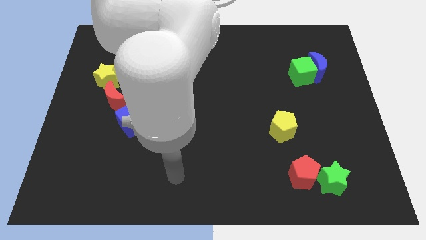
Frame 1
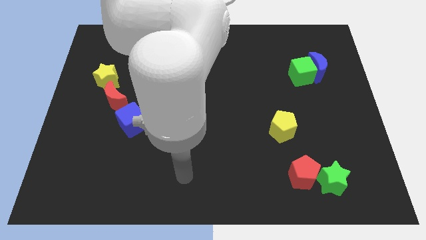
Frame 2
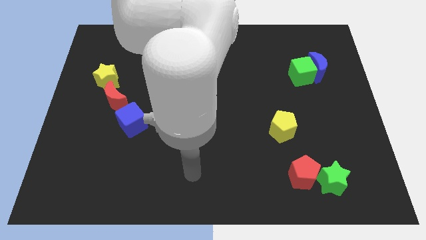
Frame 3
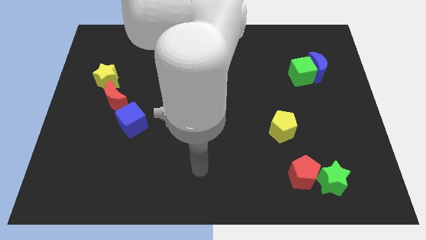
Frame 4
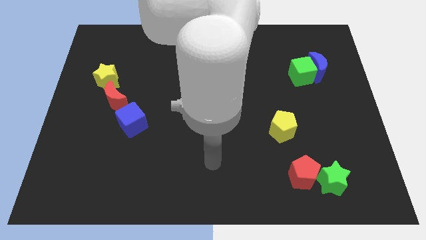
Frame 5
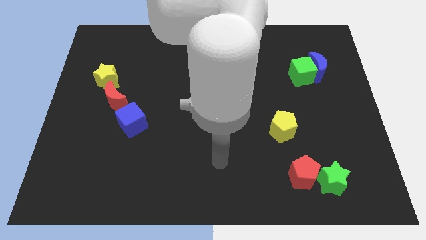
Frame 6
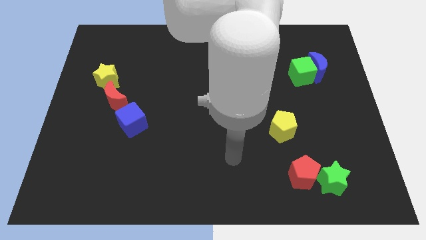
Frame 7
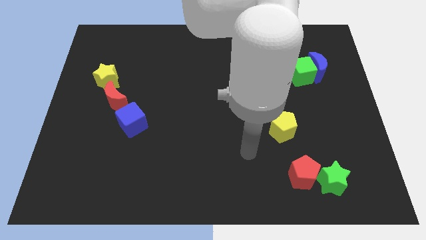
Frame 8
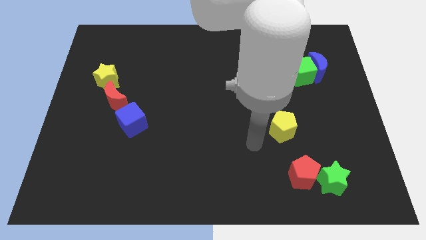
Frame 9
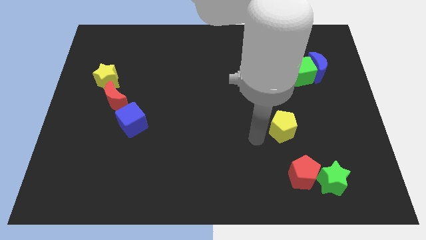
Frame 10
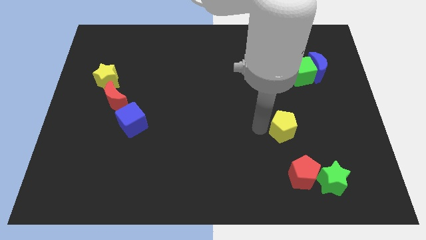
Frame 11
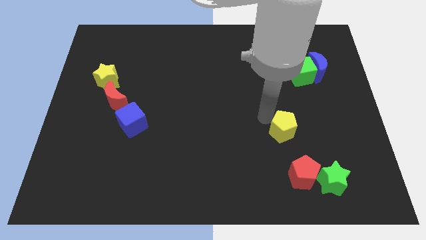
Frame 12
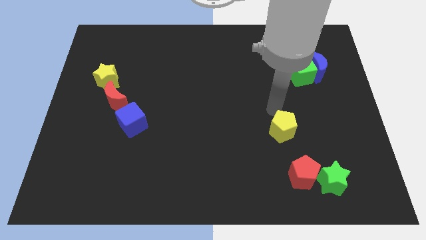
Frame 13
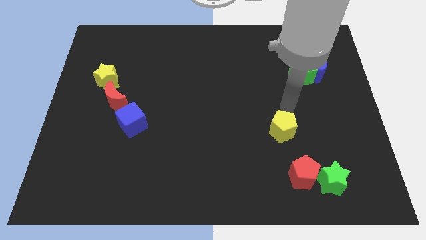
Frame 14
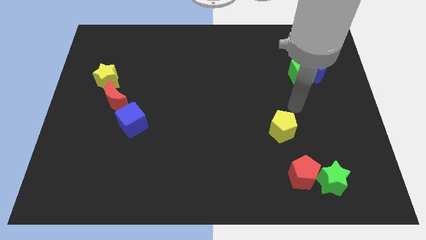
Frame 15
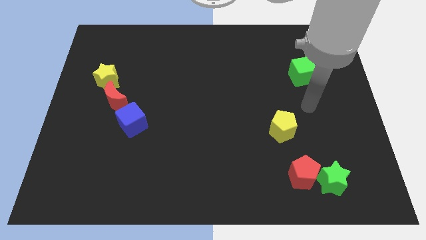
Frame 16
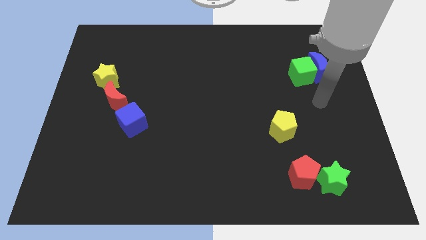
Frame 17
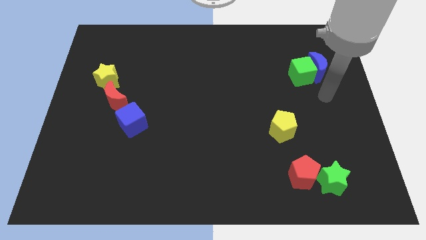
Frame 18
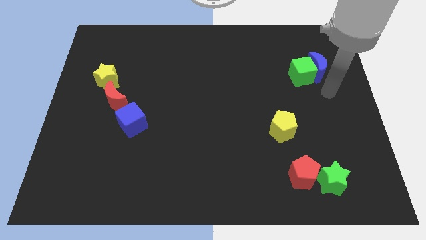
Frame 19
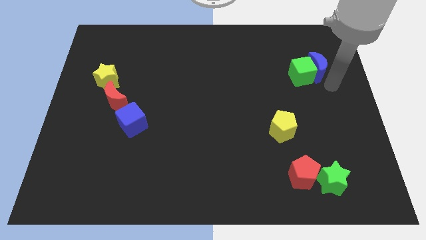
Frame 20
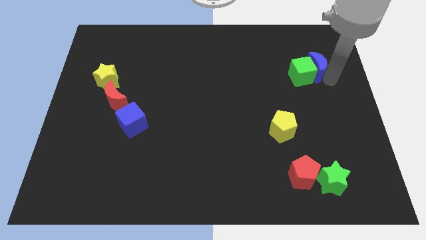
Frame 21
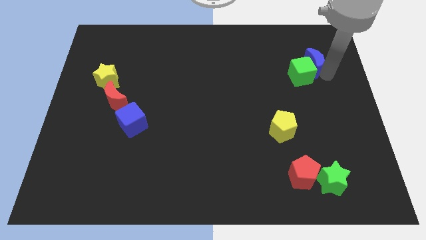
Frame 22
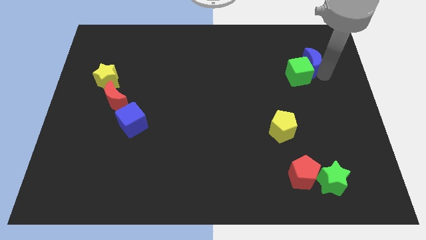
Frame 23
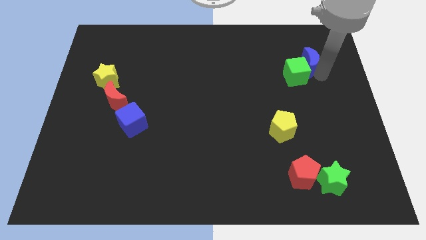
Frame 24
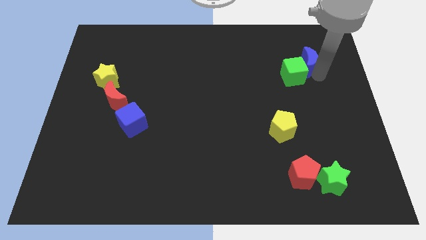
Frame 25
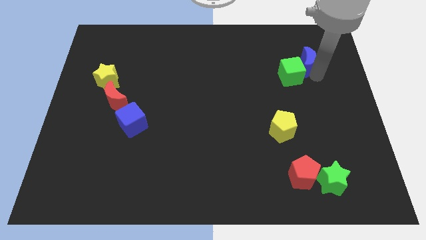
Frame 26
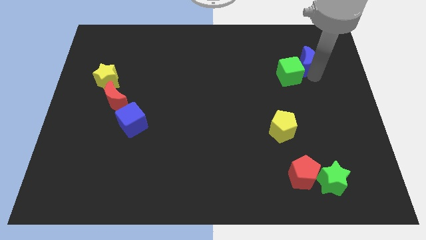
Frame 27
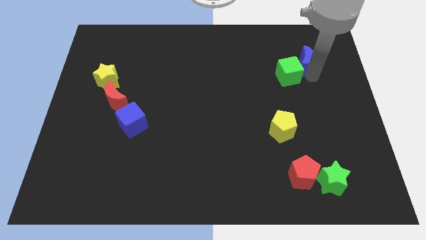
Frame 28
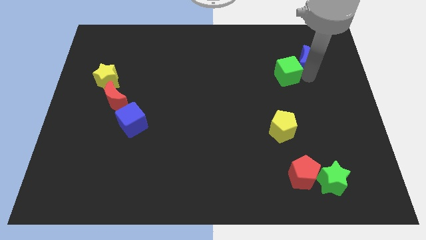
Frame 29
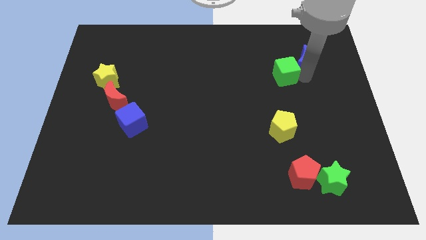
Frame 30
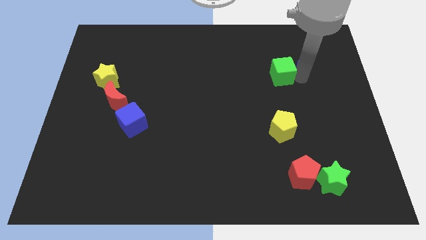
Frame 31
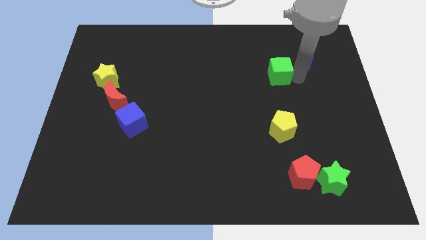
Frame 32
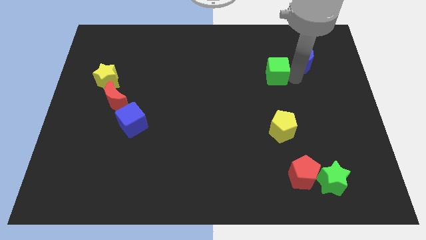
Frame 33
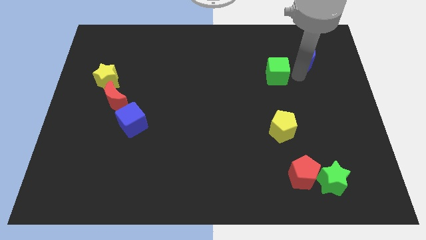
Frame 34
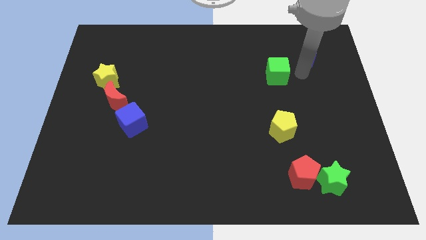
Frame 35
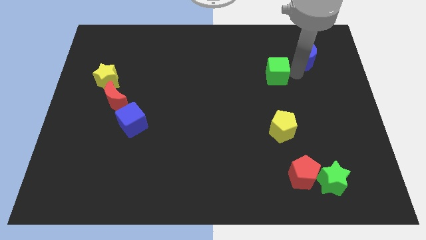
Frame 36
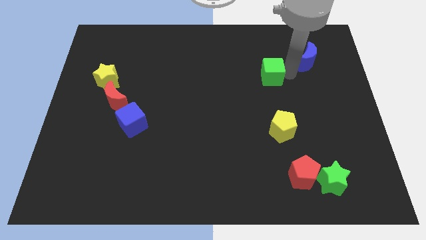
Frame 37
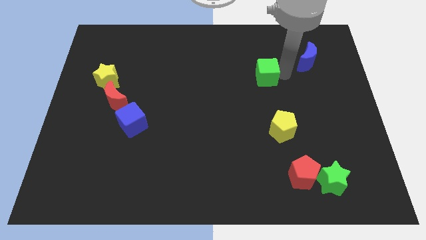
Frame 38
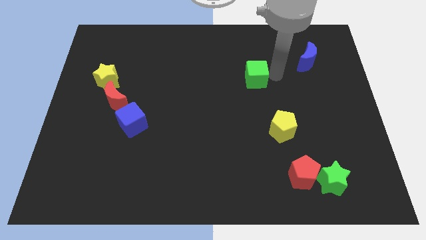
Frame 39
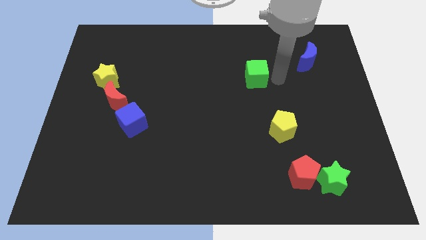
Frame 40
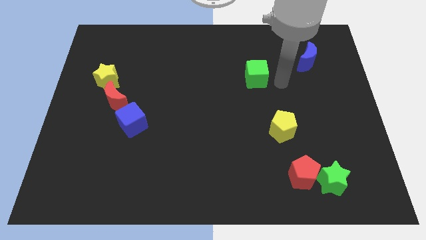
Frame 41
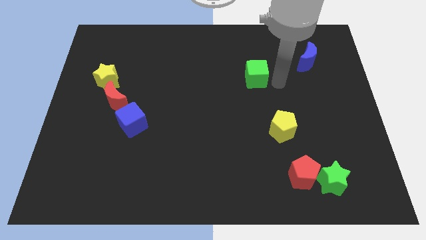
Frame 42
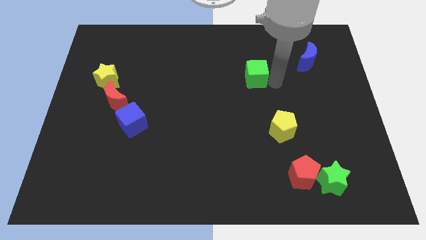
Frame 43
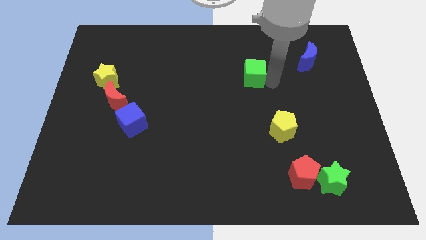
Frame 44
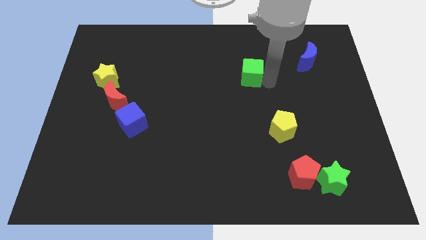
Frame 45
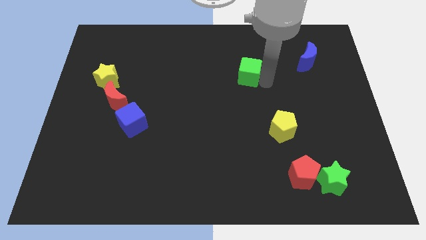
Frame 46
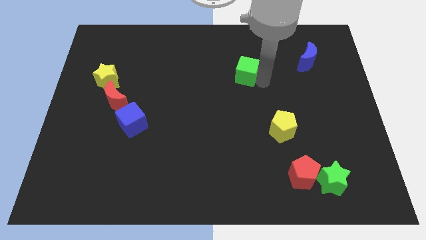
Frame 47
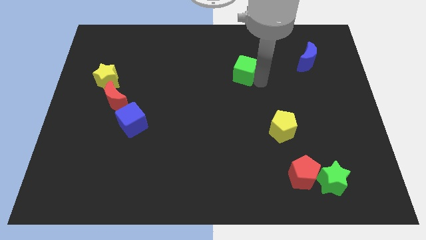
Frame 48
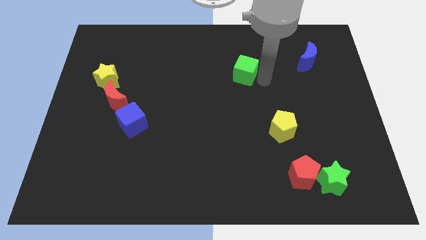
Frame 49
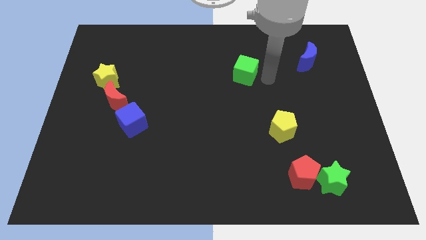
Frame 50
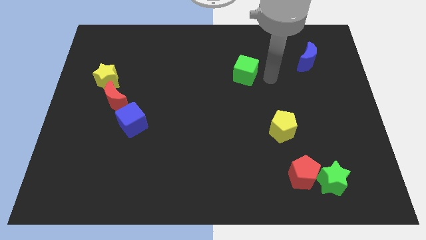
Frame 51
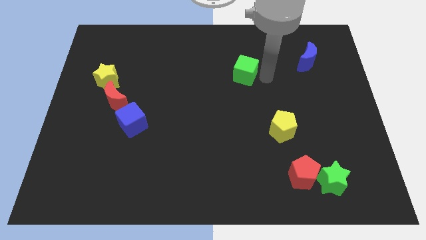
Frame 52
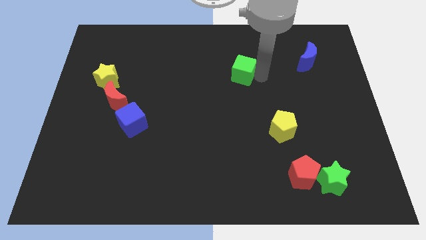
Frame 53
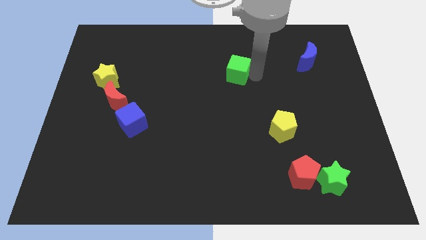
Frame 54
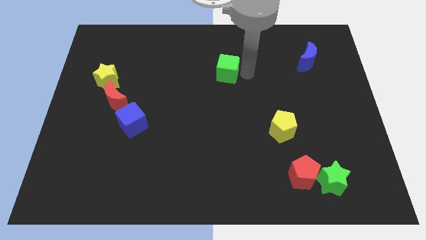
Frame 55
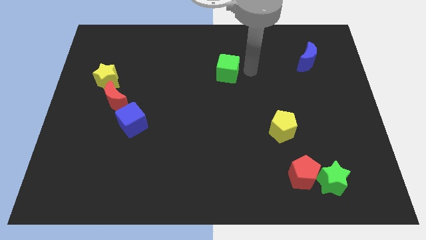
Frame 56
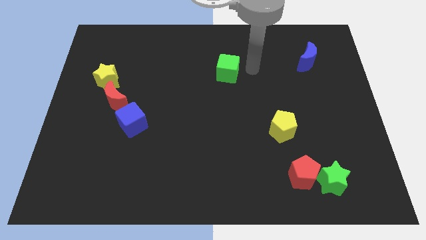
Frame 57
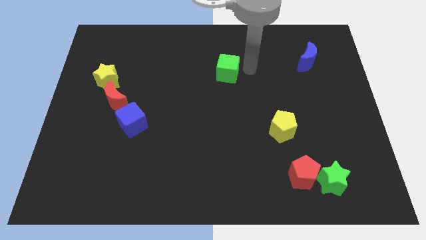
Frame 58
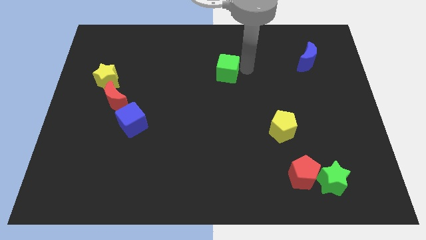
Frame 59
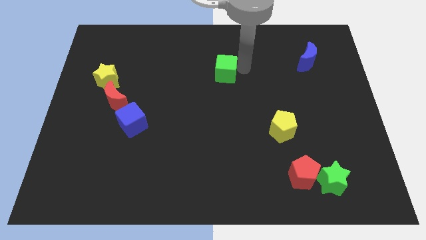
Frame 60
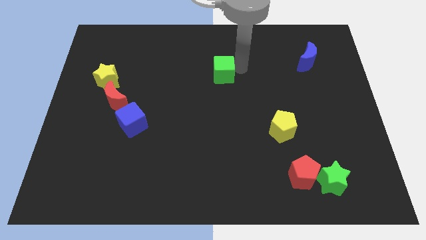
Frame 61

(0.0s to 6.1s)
slide the green cube left

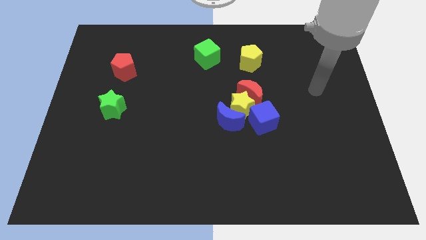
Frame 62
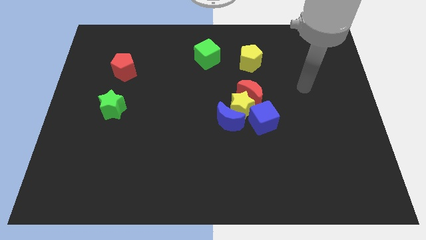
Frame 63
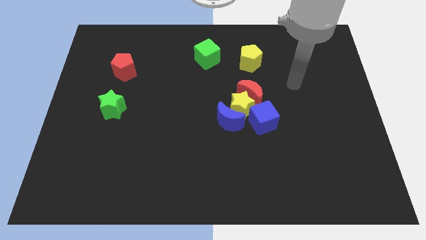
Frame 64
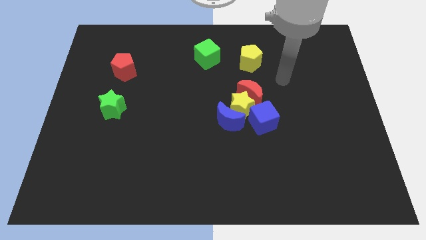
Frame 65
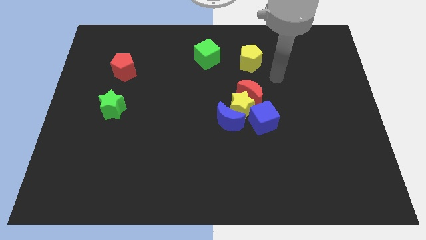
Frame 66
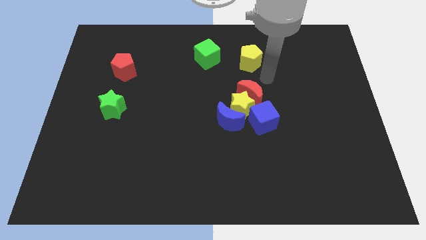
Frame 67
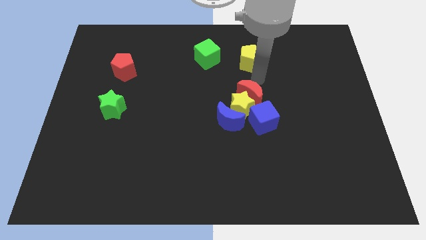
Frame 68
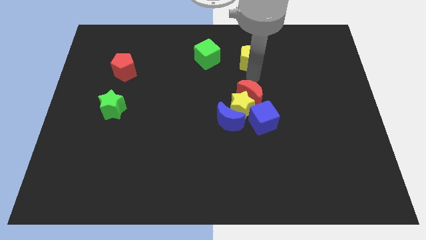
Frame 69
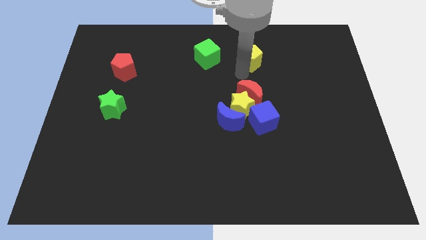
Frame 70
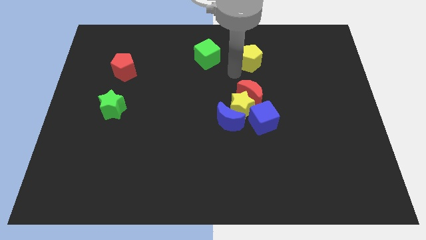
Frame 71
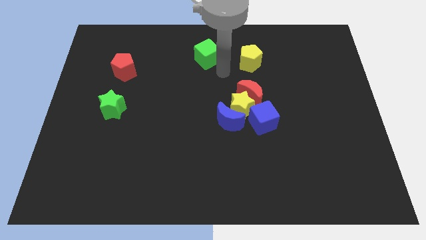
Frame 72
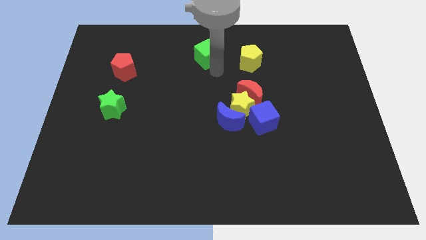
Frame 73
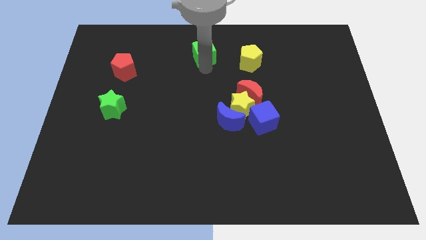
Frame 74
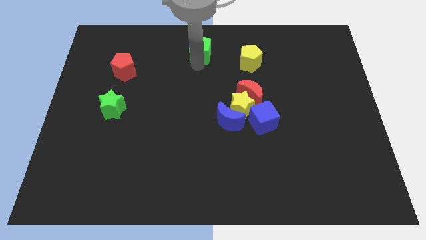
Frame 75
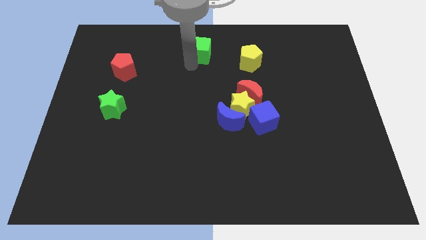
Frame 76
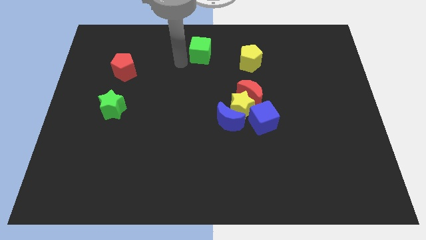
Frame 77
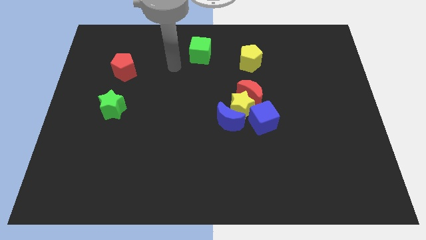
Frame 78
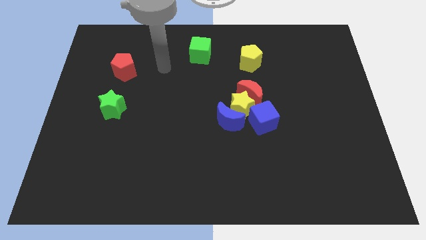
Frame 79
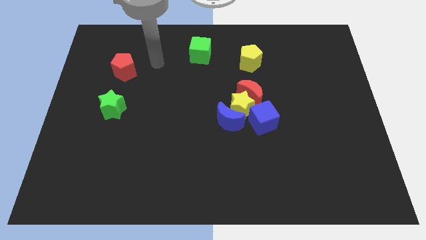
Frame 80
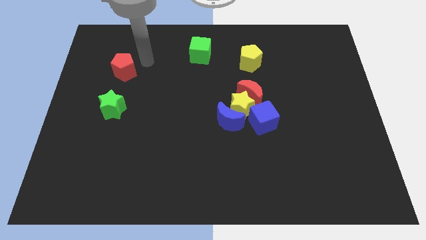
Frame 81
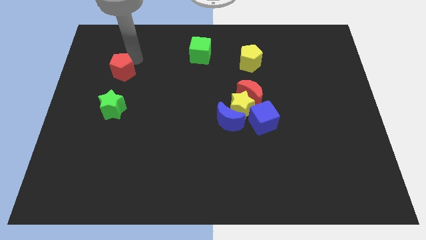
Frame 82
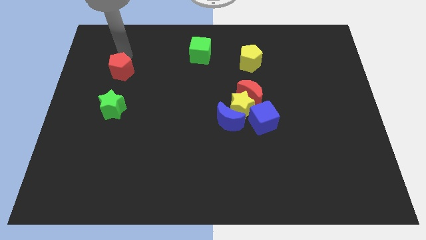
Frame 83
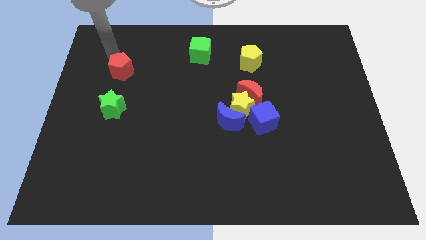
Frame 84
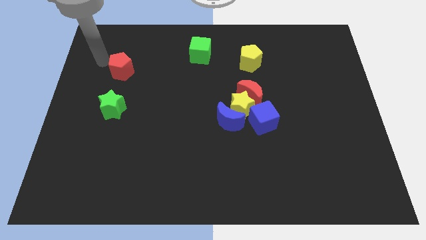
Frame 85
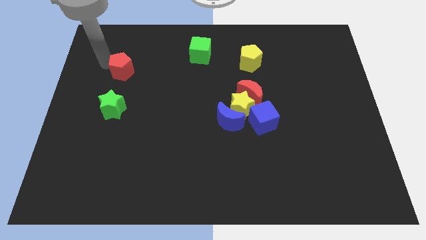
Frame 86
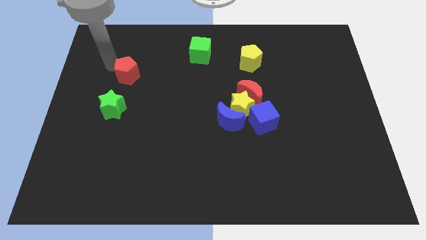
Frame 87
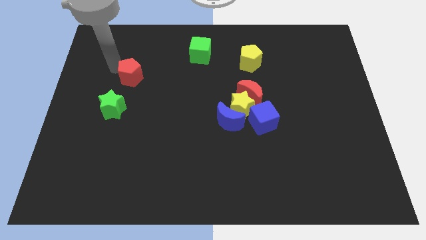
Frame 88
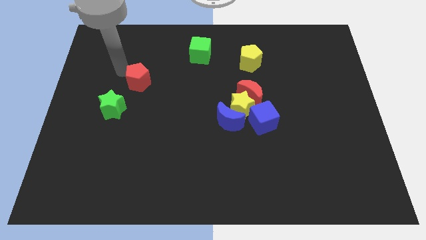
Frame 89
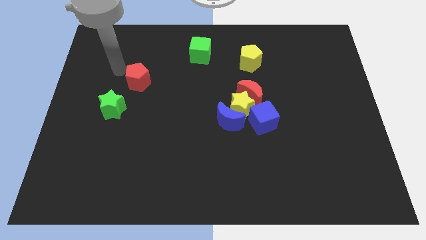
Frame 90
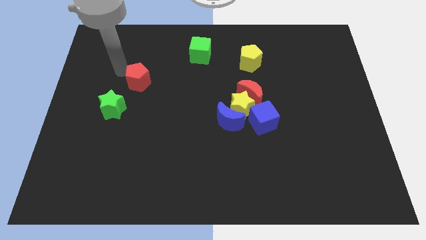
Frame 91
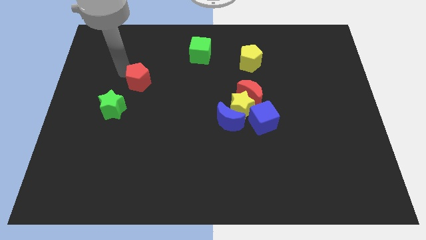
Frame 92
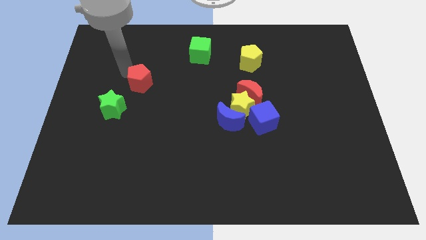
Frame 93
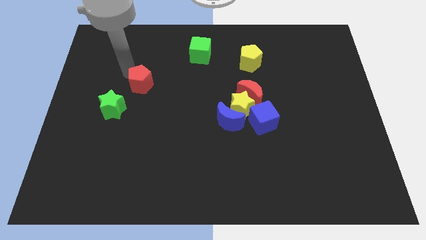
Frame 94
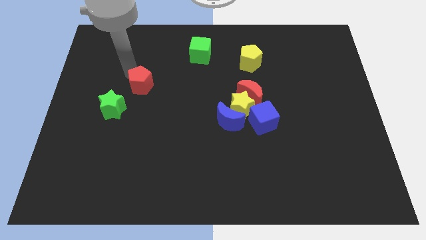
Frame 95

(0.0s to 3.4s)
slightly push the red pentagon downwards and right
